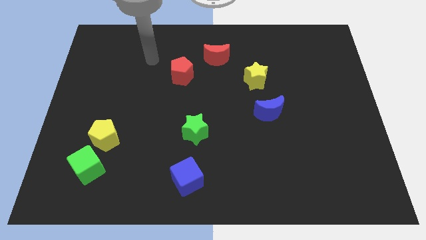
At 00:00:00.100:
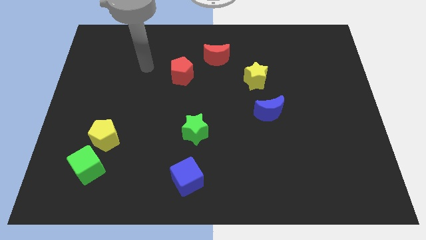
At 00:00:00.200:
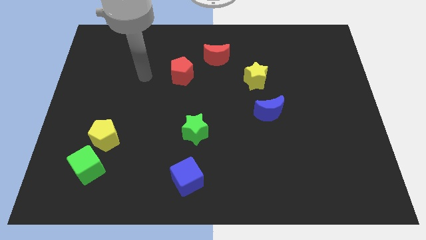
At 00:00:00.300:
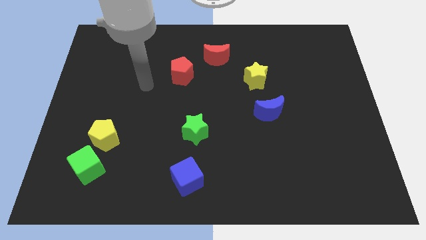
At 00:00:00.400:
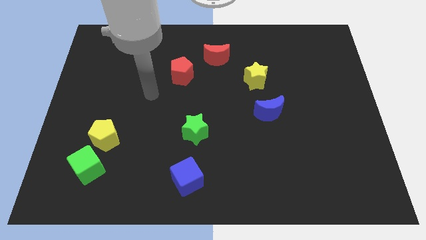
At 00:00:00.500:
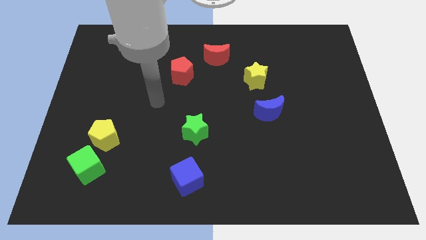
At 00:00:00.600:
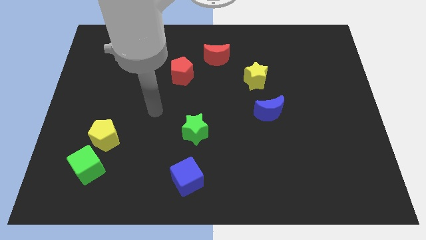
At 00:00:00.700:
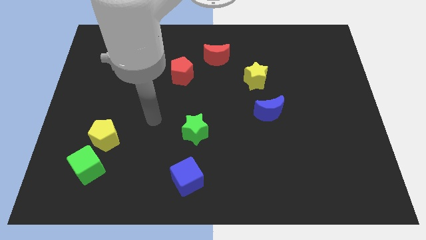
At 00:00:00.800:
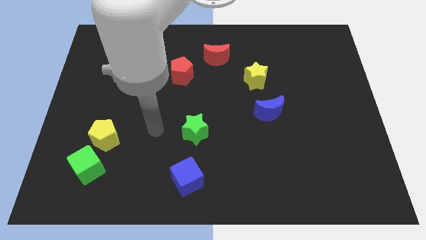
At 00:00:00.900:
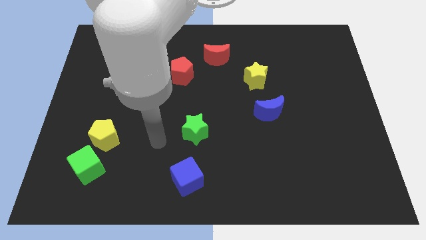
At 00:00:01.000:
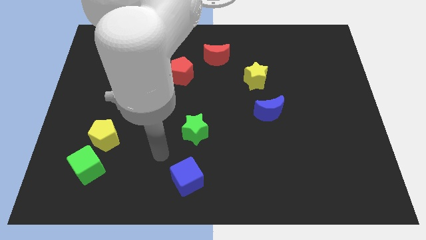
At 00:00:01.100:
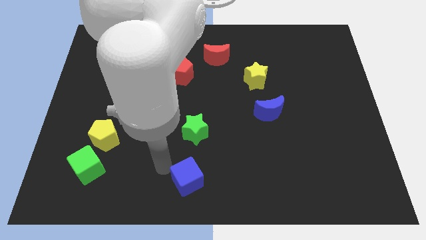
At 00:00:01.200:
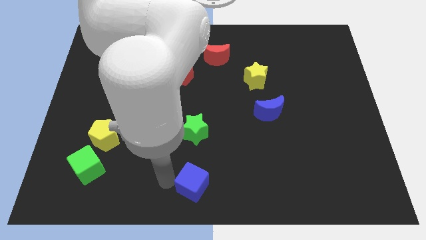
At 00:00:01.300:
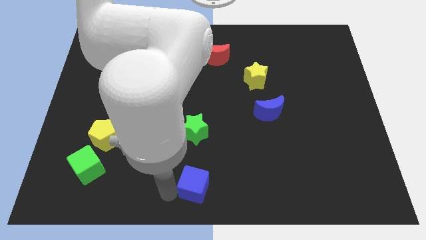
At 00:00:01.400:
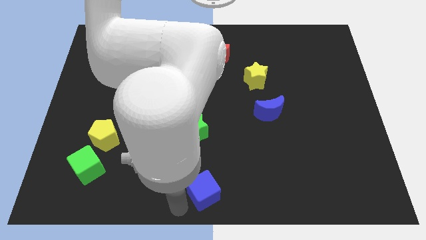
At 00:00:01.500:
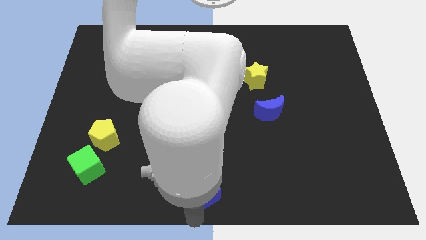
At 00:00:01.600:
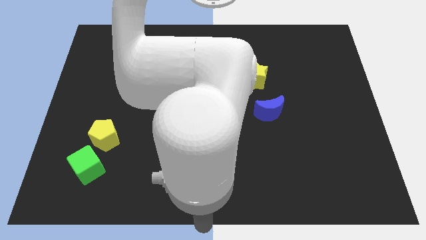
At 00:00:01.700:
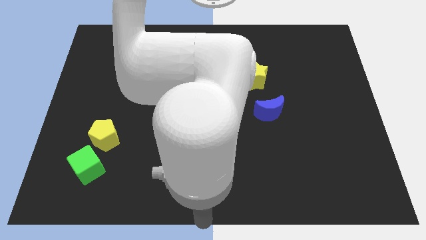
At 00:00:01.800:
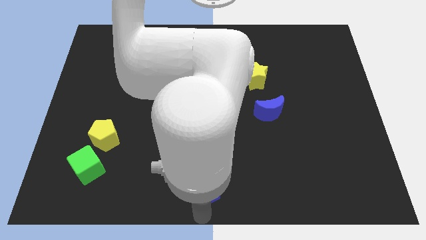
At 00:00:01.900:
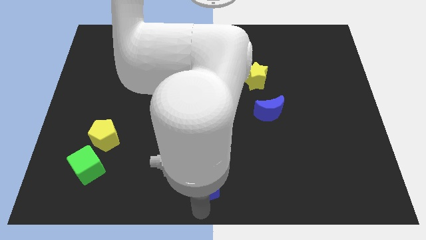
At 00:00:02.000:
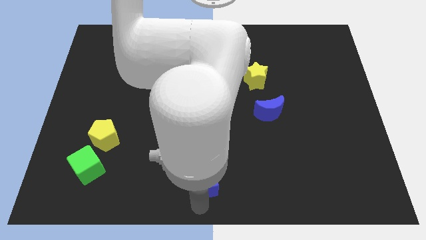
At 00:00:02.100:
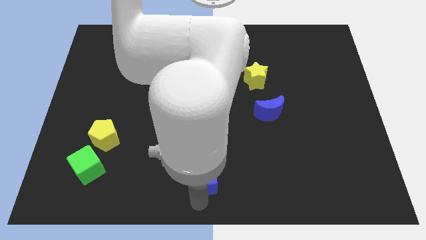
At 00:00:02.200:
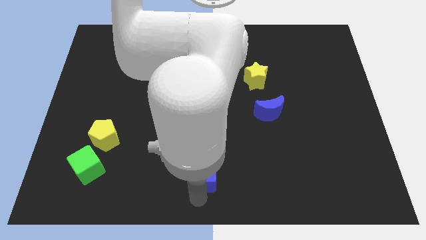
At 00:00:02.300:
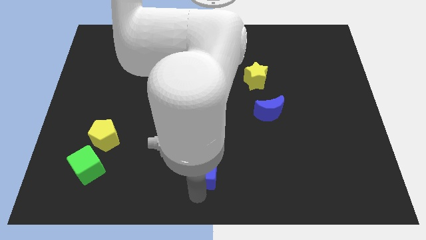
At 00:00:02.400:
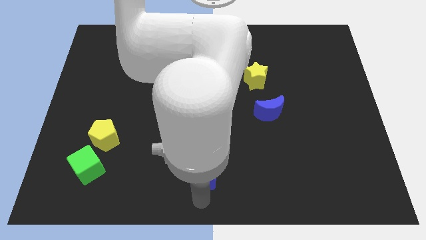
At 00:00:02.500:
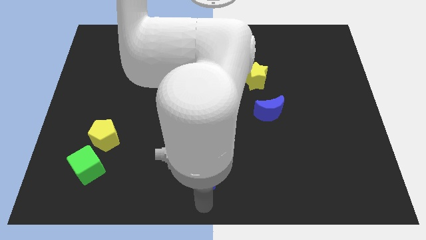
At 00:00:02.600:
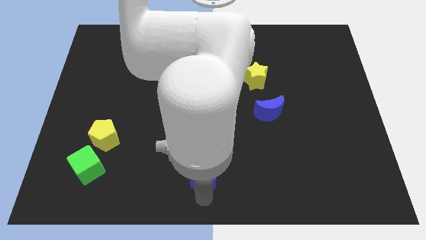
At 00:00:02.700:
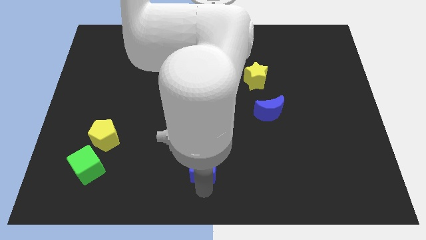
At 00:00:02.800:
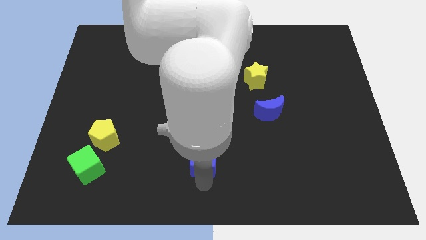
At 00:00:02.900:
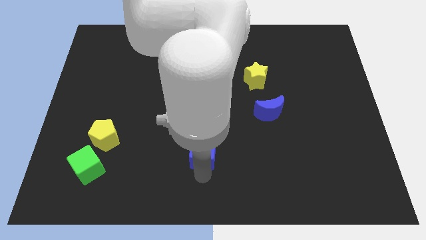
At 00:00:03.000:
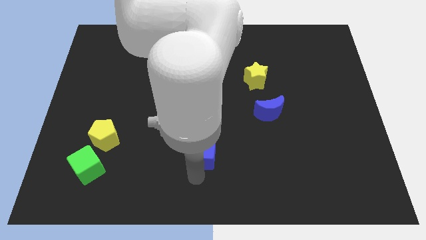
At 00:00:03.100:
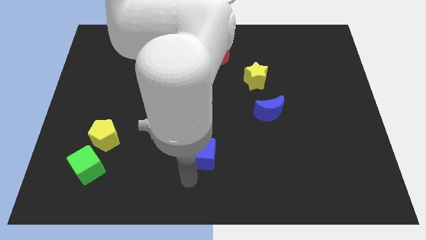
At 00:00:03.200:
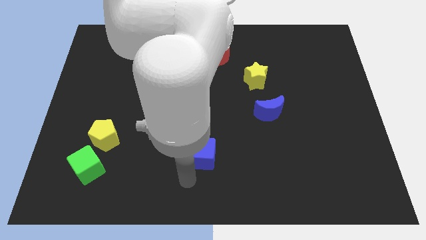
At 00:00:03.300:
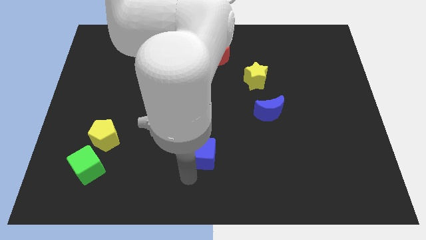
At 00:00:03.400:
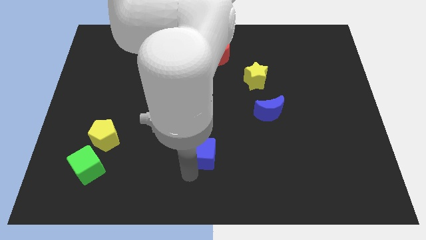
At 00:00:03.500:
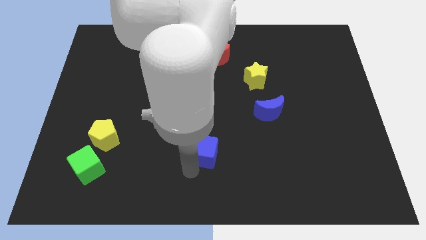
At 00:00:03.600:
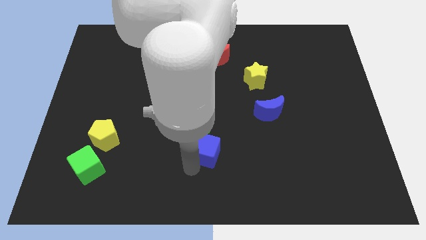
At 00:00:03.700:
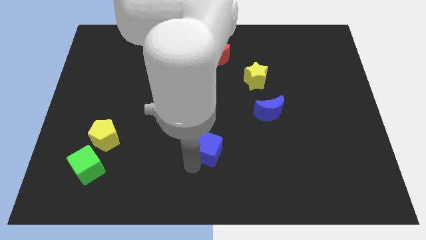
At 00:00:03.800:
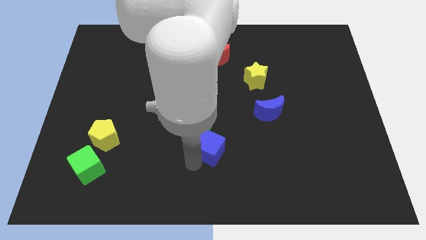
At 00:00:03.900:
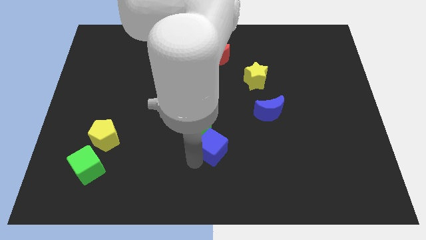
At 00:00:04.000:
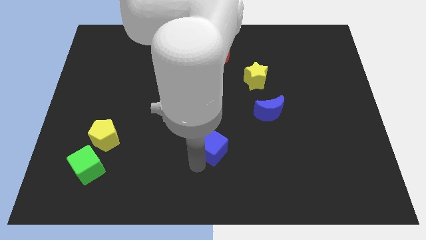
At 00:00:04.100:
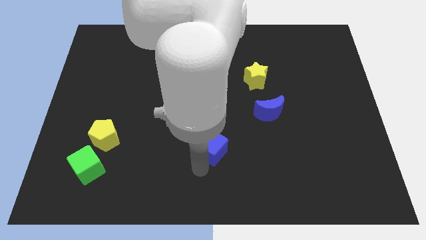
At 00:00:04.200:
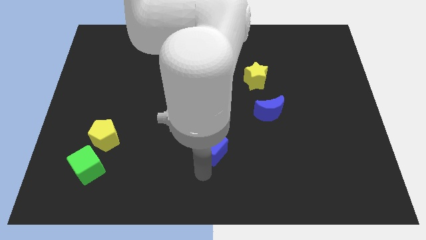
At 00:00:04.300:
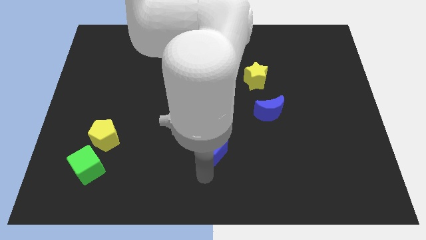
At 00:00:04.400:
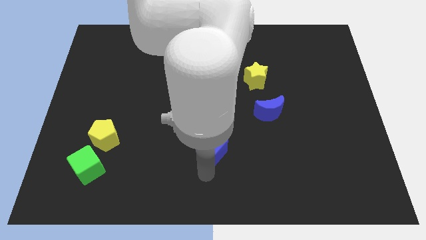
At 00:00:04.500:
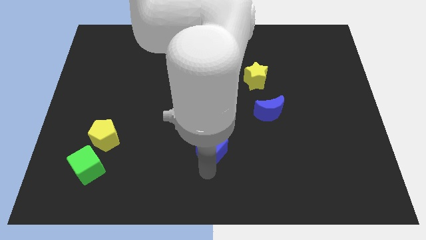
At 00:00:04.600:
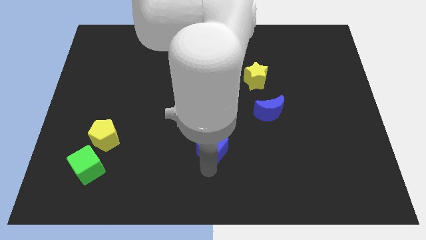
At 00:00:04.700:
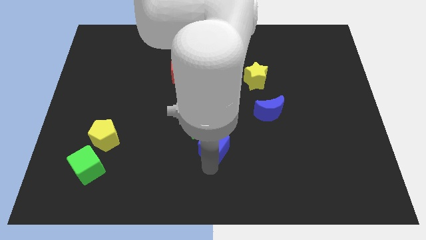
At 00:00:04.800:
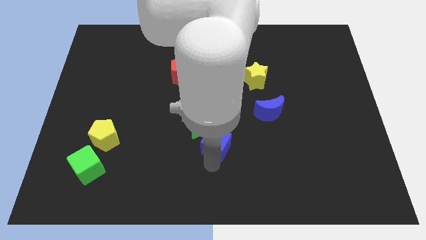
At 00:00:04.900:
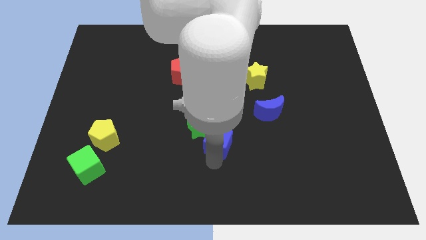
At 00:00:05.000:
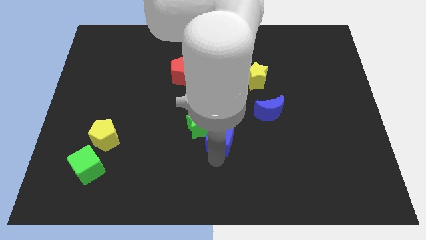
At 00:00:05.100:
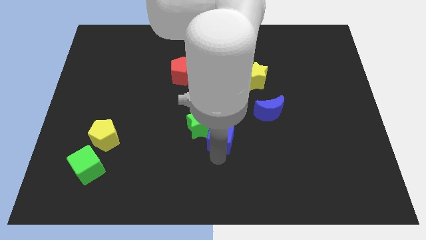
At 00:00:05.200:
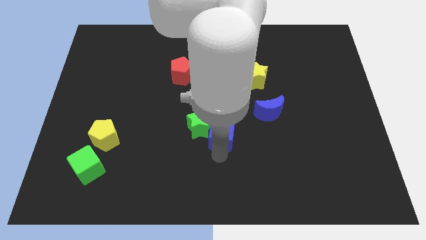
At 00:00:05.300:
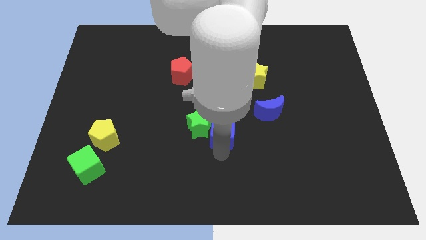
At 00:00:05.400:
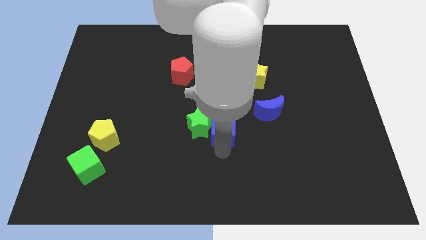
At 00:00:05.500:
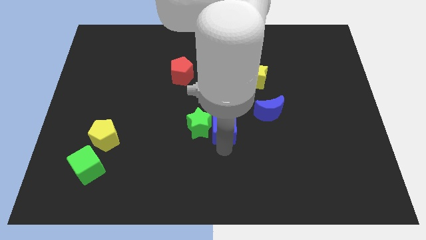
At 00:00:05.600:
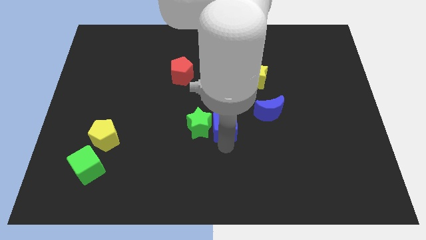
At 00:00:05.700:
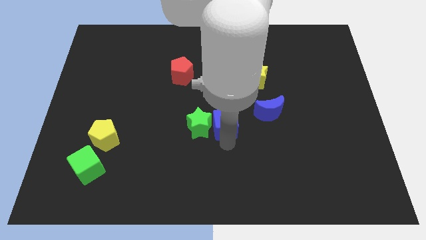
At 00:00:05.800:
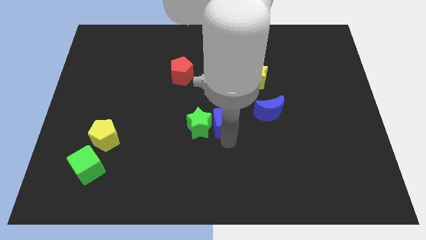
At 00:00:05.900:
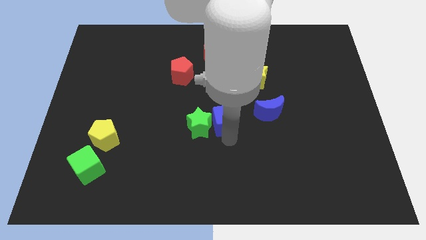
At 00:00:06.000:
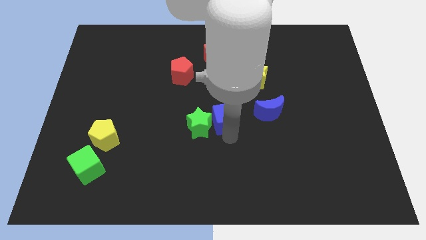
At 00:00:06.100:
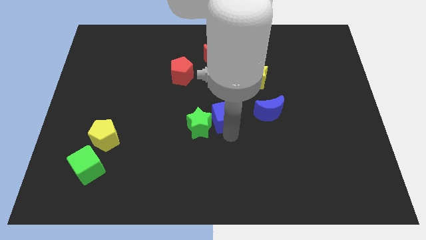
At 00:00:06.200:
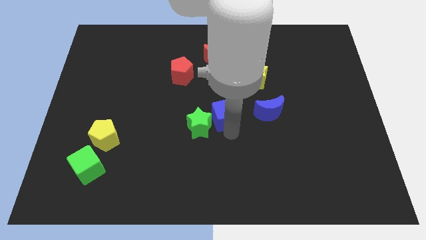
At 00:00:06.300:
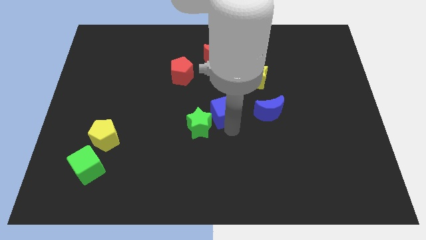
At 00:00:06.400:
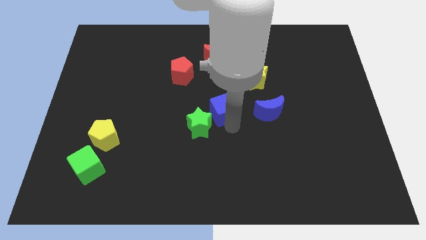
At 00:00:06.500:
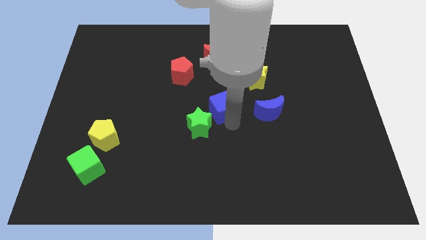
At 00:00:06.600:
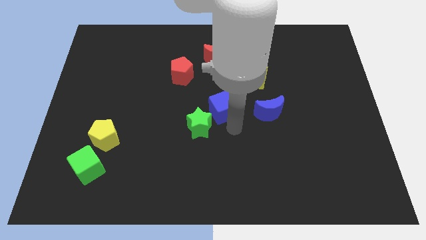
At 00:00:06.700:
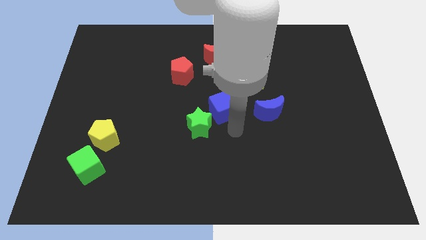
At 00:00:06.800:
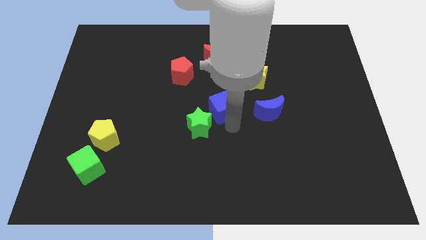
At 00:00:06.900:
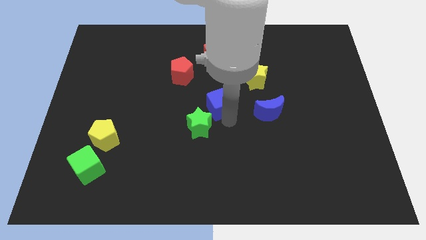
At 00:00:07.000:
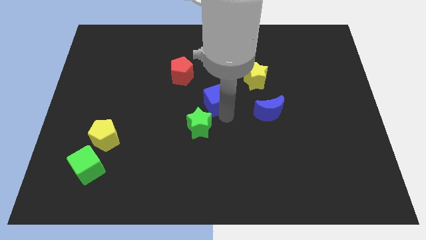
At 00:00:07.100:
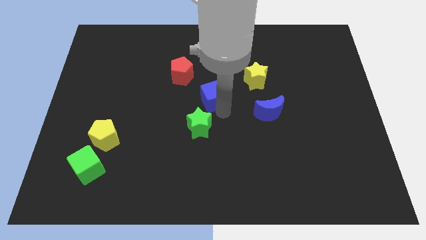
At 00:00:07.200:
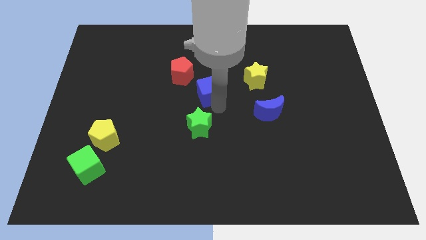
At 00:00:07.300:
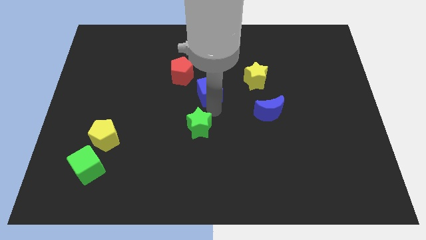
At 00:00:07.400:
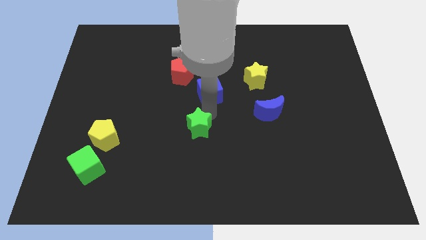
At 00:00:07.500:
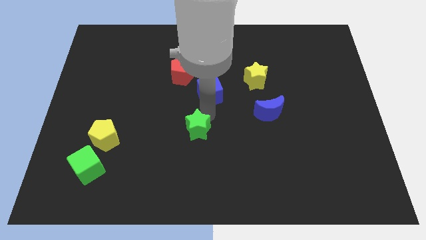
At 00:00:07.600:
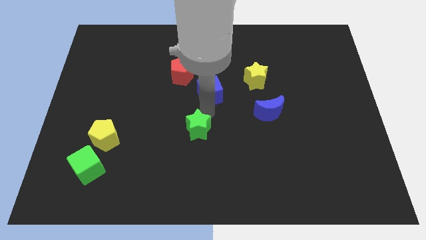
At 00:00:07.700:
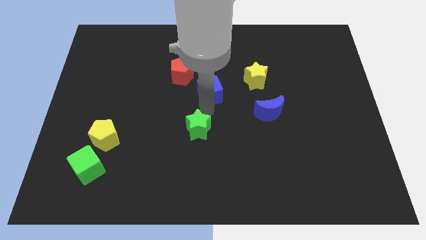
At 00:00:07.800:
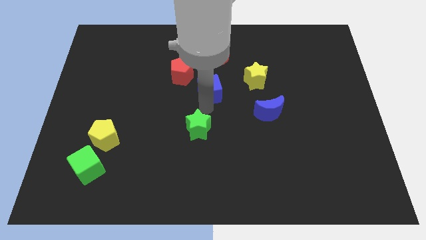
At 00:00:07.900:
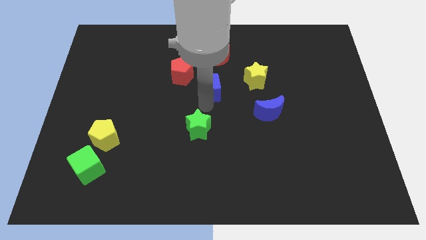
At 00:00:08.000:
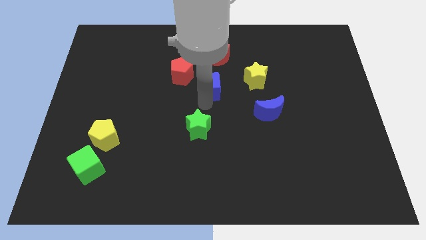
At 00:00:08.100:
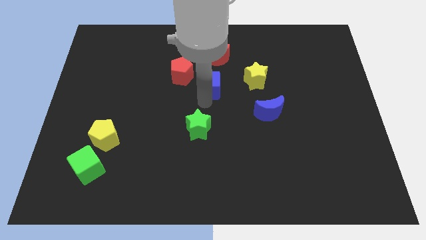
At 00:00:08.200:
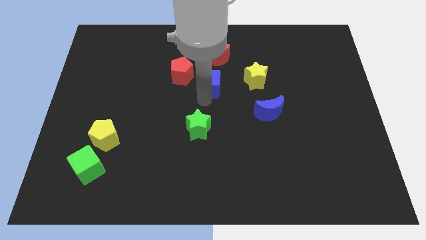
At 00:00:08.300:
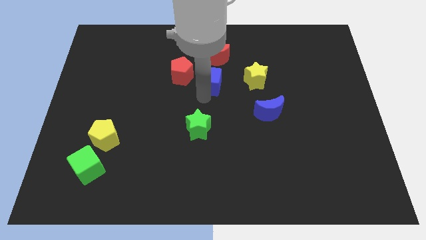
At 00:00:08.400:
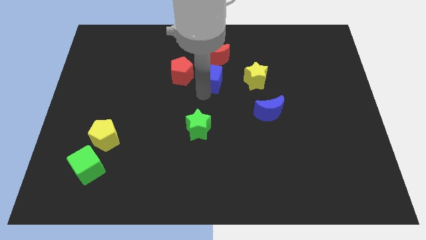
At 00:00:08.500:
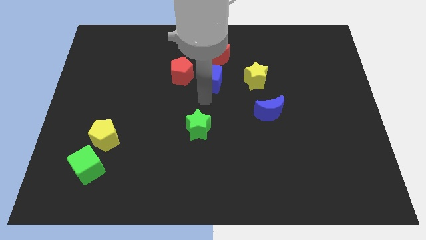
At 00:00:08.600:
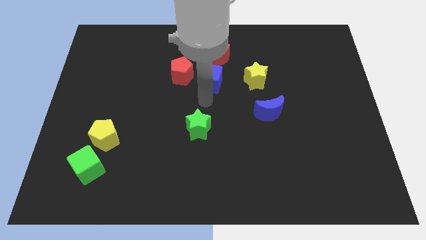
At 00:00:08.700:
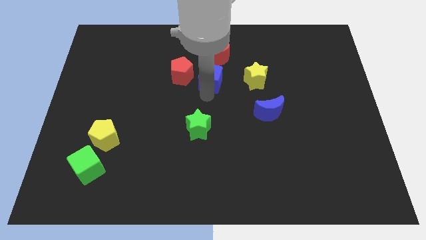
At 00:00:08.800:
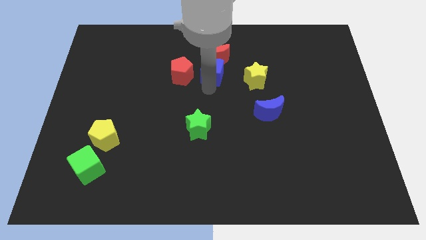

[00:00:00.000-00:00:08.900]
move the blue cube next to the red moon
